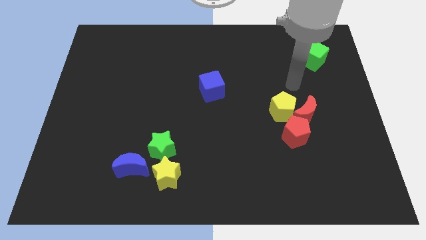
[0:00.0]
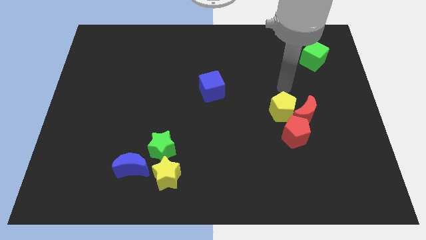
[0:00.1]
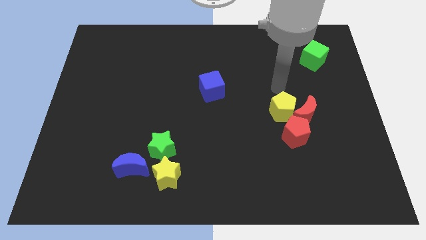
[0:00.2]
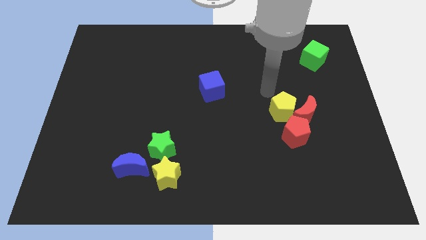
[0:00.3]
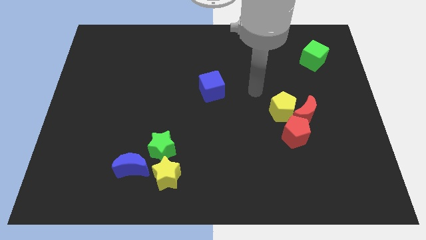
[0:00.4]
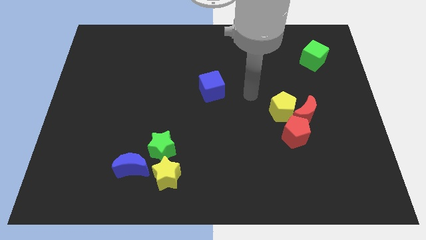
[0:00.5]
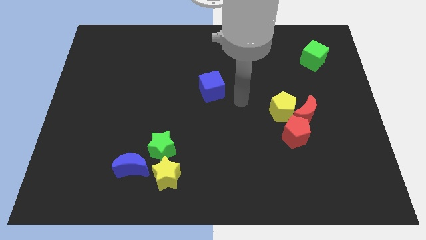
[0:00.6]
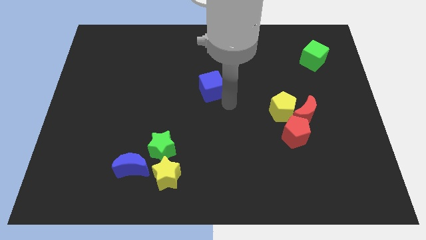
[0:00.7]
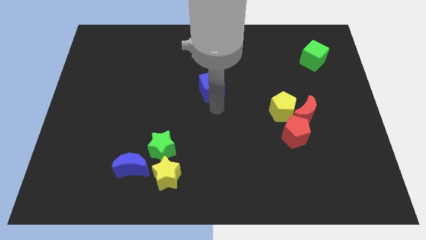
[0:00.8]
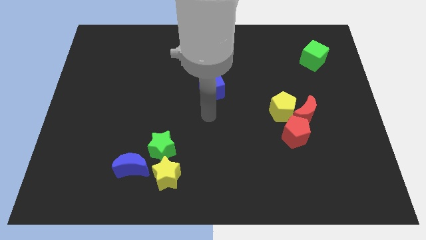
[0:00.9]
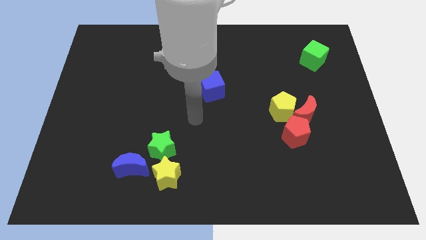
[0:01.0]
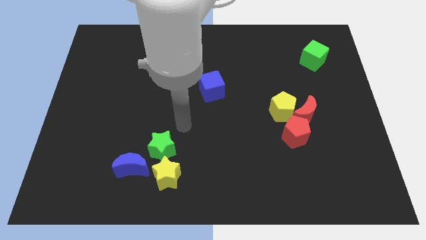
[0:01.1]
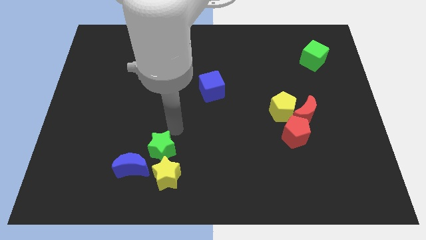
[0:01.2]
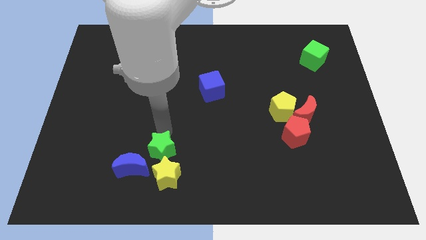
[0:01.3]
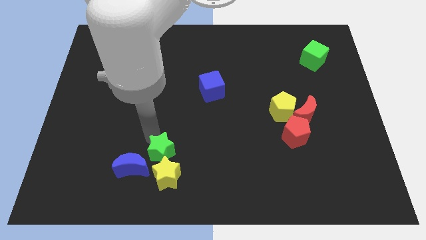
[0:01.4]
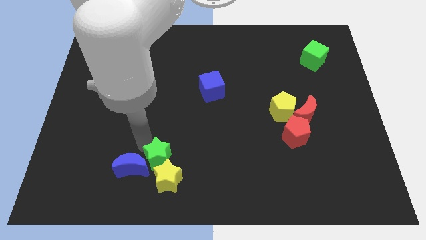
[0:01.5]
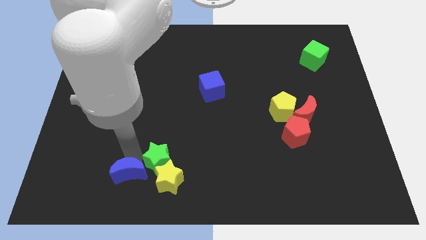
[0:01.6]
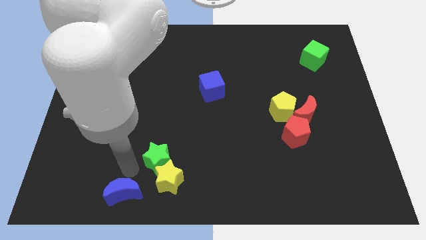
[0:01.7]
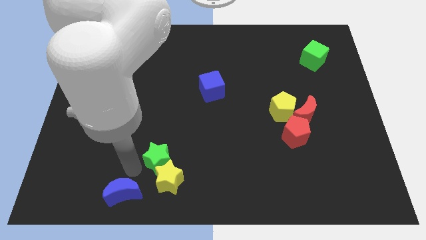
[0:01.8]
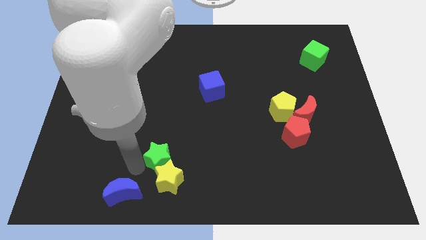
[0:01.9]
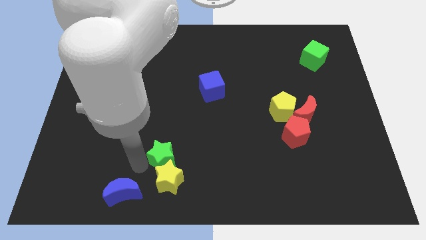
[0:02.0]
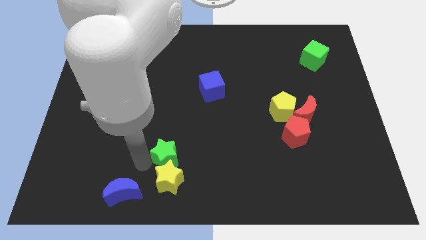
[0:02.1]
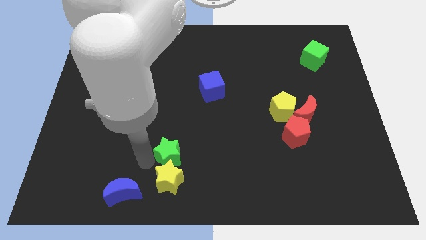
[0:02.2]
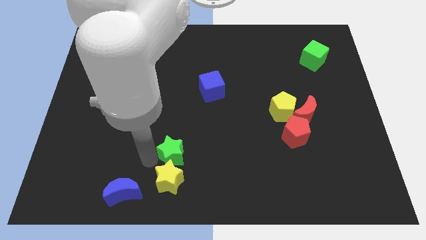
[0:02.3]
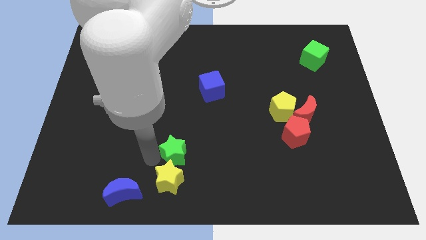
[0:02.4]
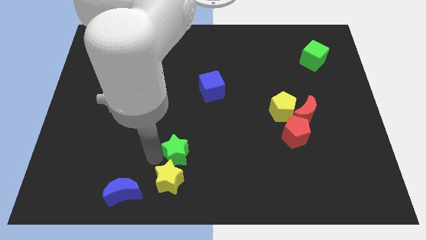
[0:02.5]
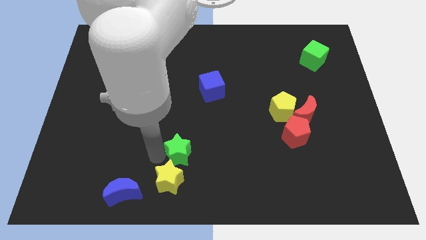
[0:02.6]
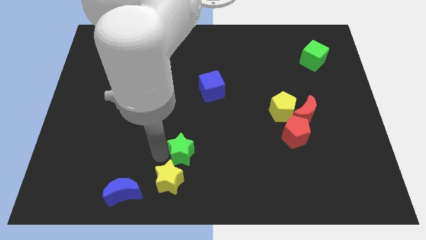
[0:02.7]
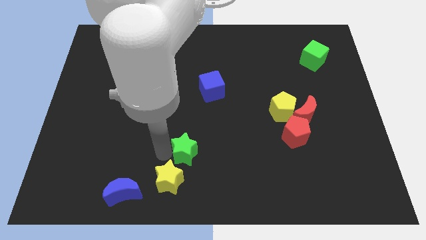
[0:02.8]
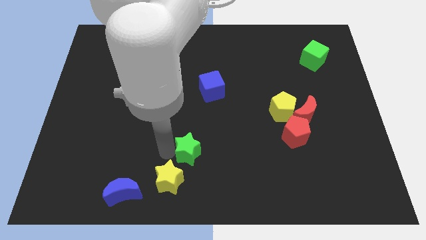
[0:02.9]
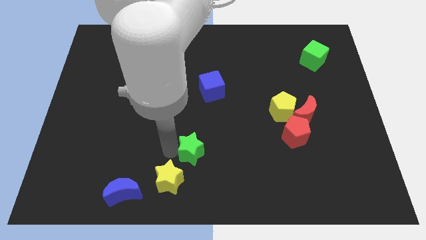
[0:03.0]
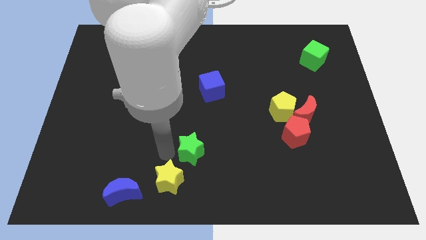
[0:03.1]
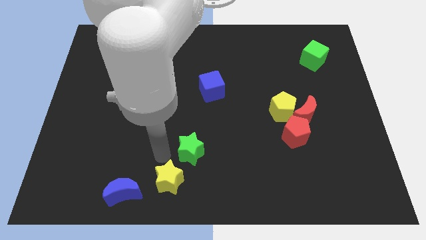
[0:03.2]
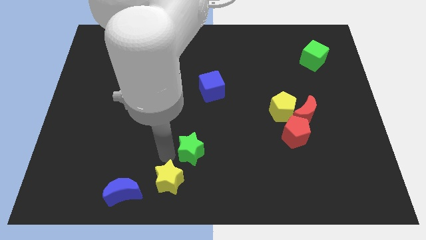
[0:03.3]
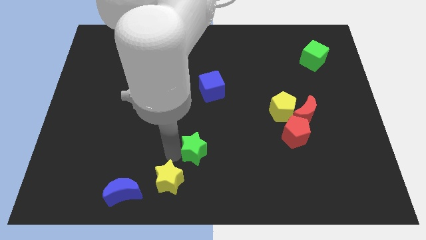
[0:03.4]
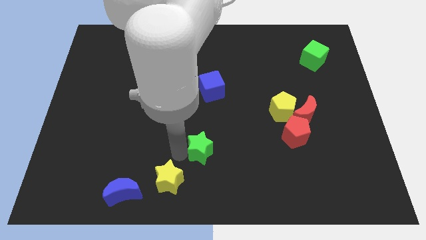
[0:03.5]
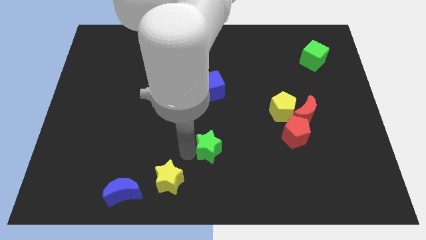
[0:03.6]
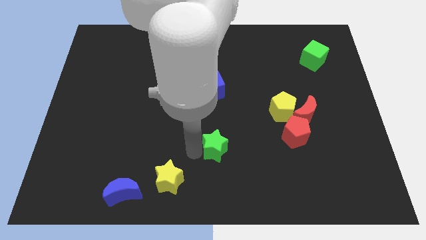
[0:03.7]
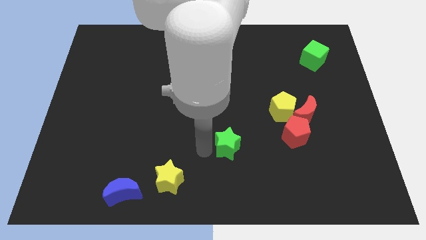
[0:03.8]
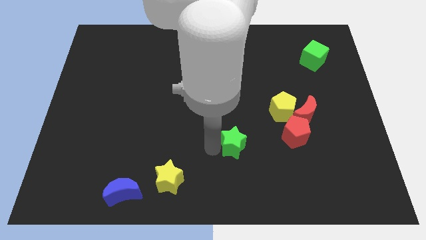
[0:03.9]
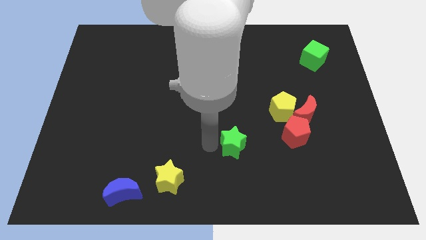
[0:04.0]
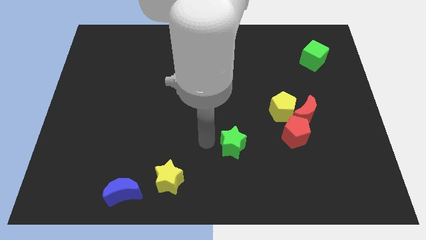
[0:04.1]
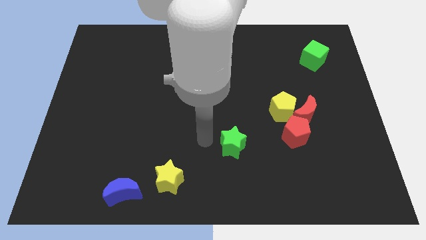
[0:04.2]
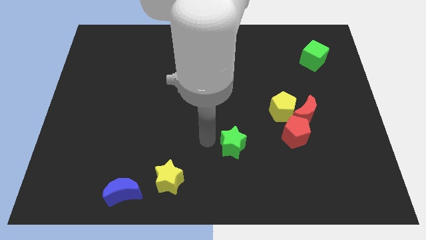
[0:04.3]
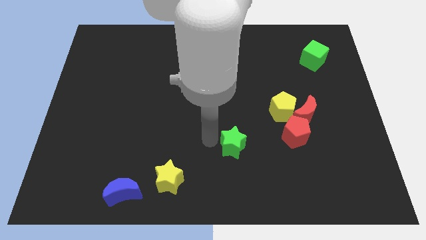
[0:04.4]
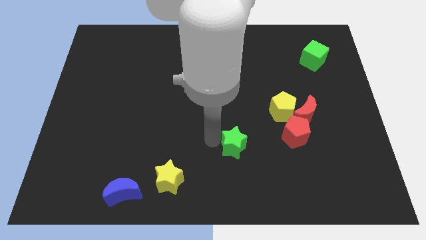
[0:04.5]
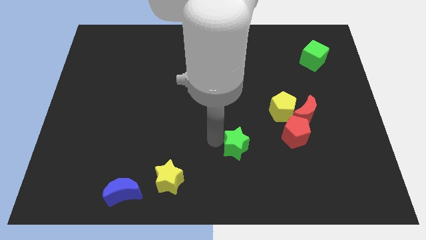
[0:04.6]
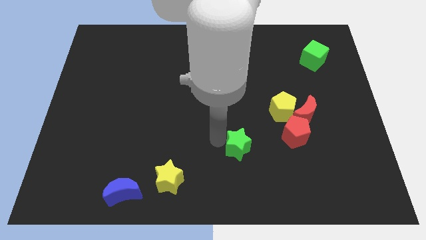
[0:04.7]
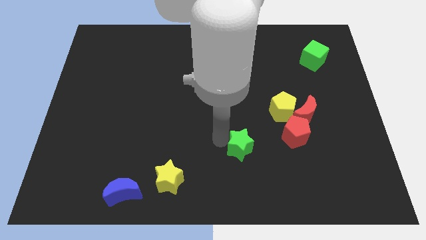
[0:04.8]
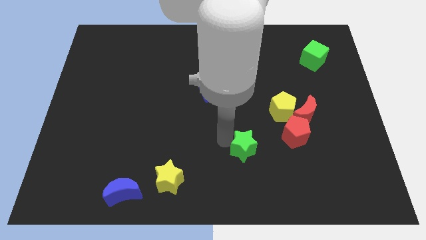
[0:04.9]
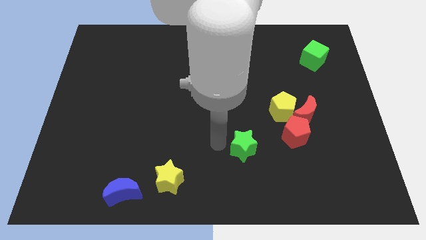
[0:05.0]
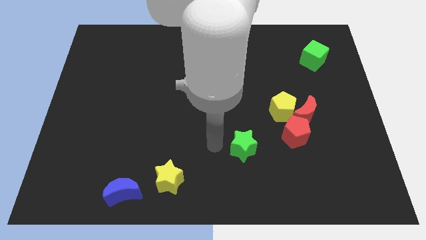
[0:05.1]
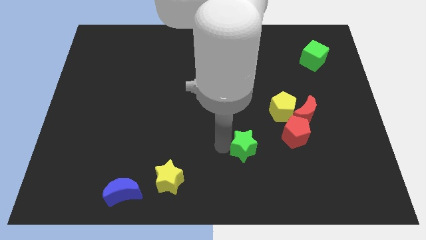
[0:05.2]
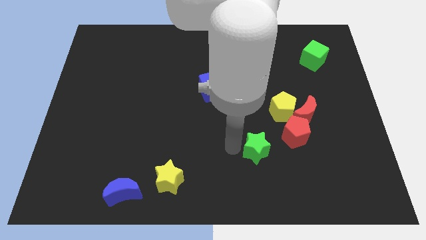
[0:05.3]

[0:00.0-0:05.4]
move the green star to the right

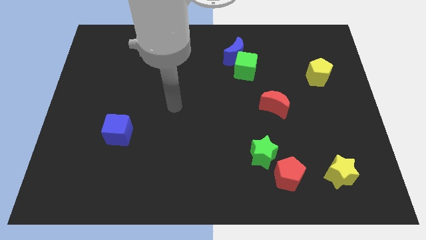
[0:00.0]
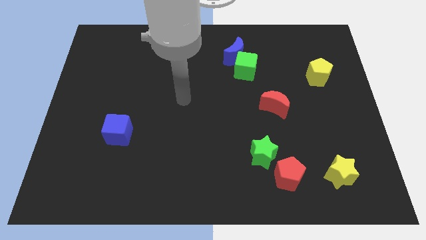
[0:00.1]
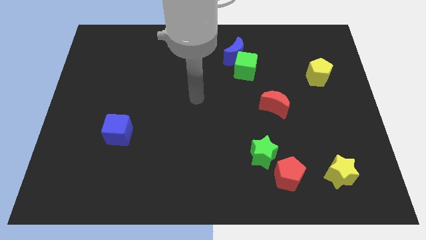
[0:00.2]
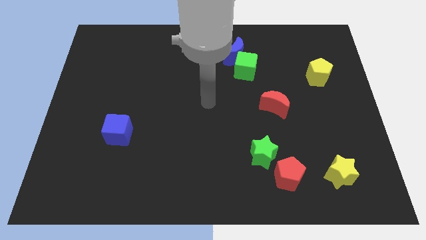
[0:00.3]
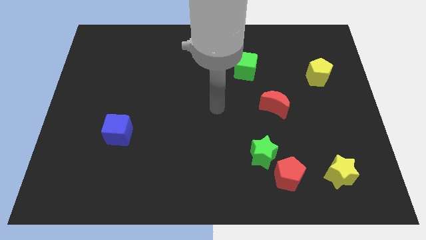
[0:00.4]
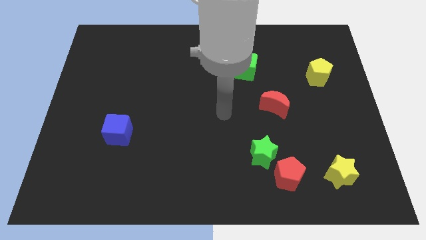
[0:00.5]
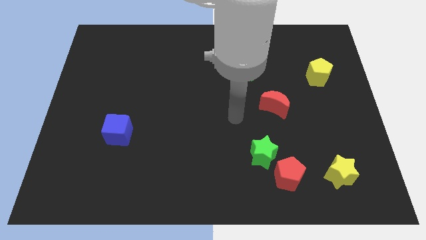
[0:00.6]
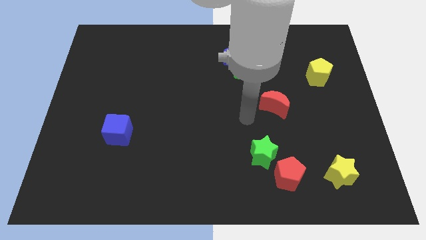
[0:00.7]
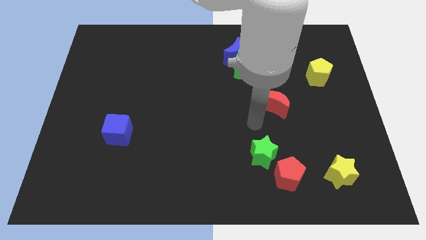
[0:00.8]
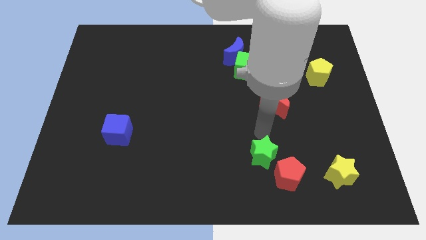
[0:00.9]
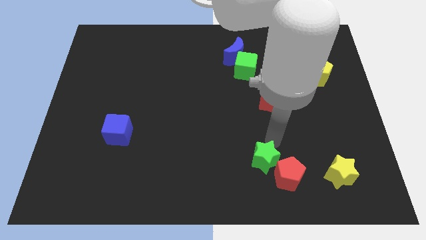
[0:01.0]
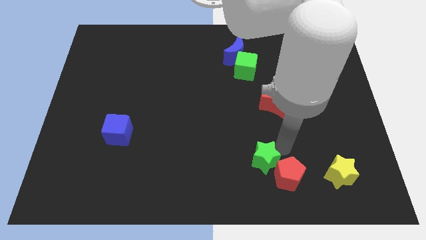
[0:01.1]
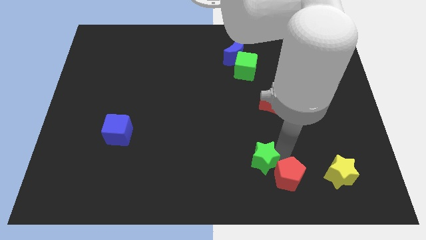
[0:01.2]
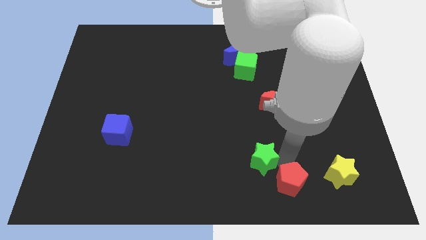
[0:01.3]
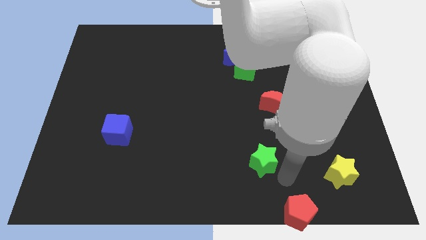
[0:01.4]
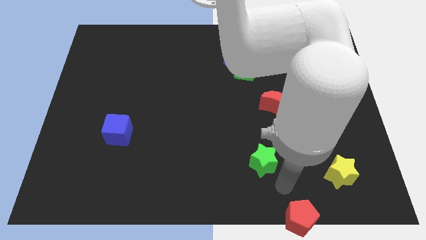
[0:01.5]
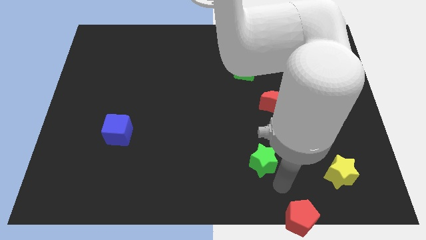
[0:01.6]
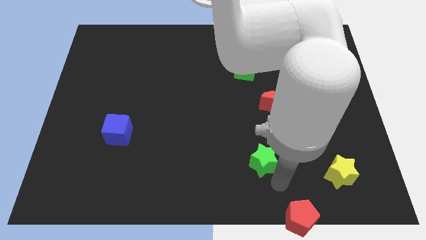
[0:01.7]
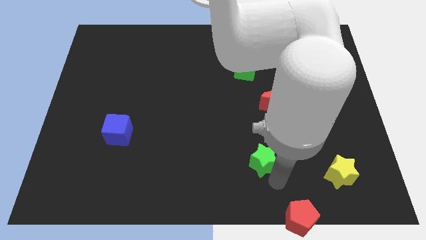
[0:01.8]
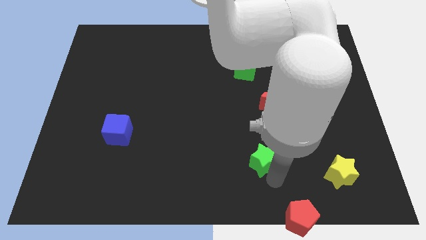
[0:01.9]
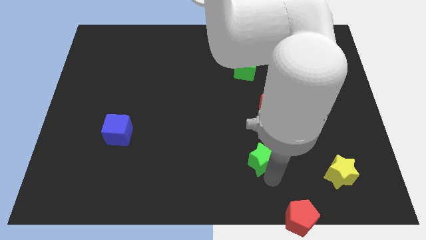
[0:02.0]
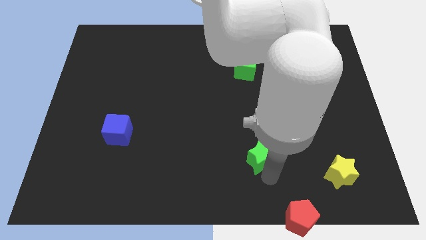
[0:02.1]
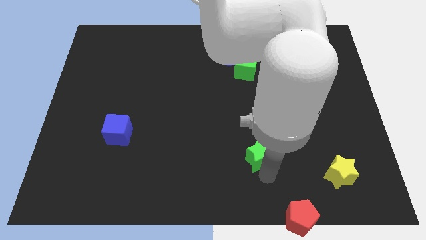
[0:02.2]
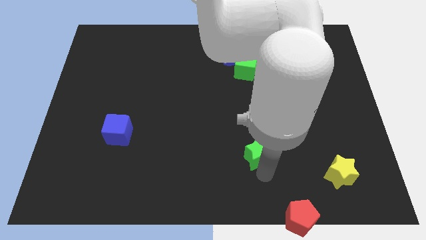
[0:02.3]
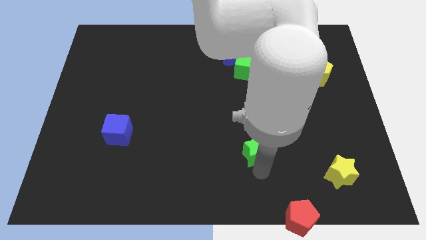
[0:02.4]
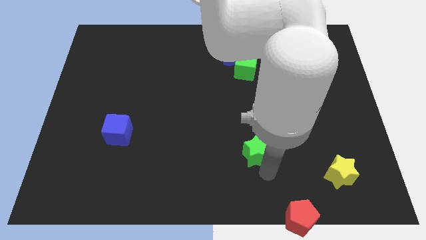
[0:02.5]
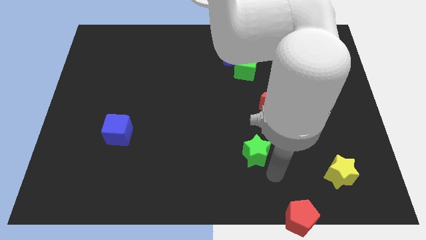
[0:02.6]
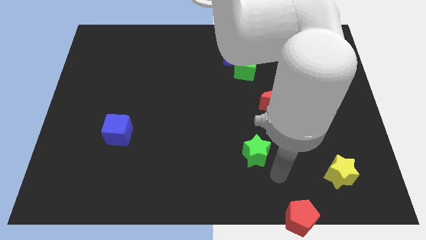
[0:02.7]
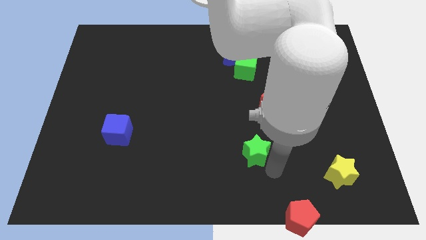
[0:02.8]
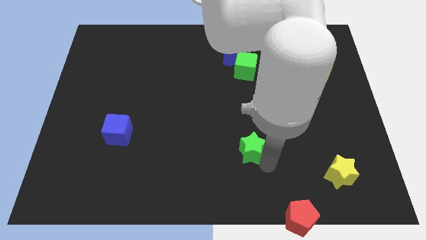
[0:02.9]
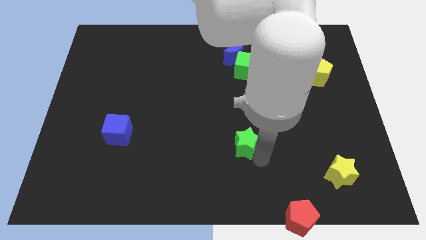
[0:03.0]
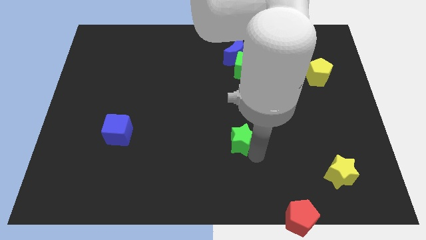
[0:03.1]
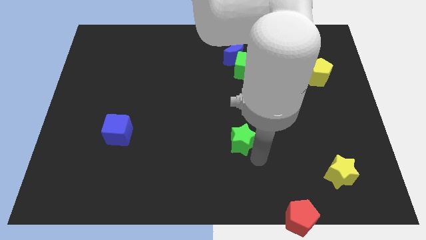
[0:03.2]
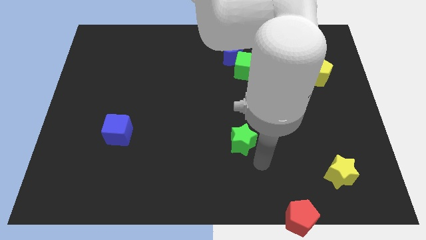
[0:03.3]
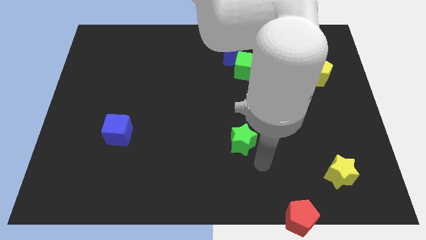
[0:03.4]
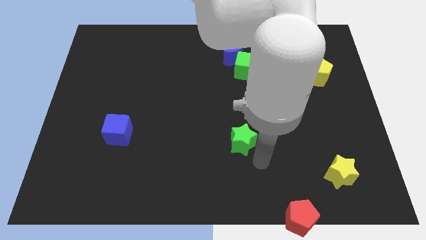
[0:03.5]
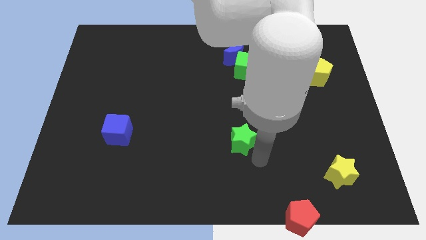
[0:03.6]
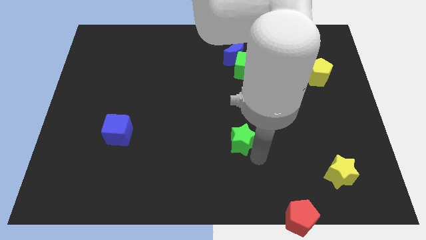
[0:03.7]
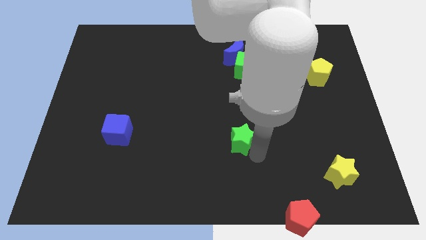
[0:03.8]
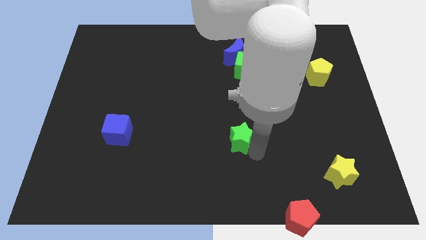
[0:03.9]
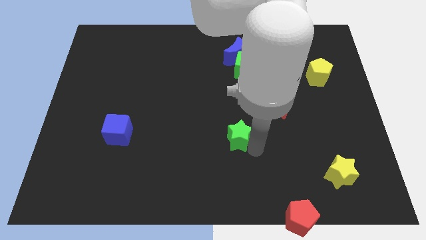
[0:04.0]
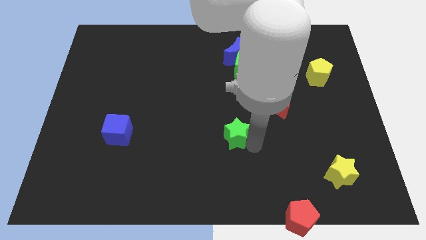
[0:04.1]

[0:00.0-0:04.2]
slide the green star a little up and then to the left
